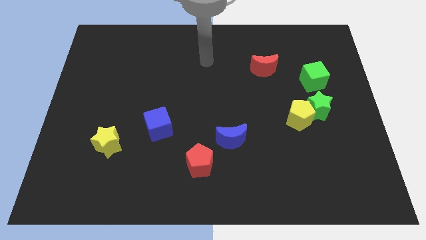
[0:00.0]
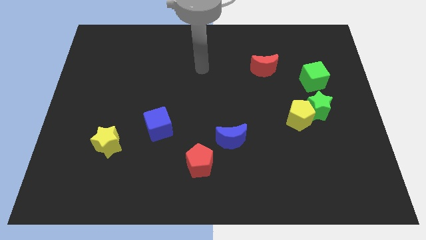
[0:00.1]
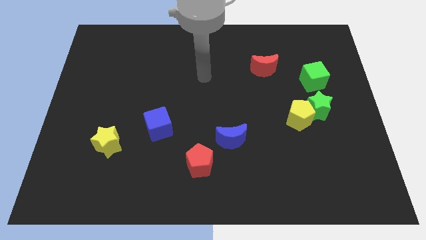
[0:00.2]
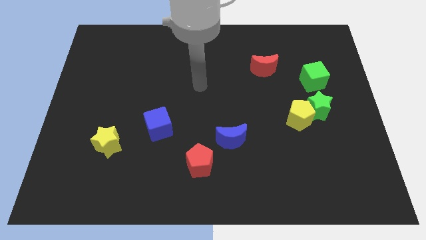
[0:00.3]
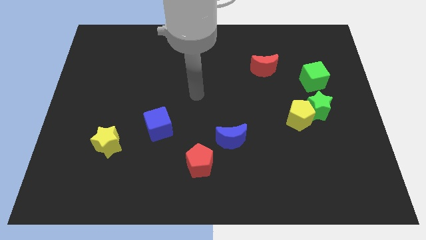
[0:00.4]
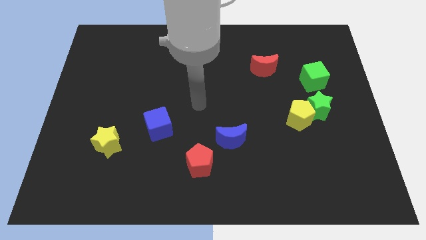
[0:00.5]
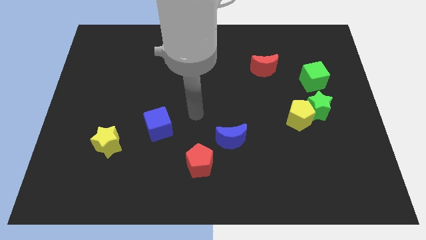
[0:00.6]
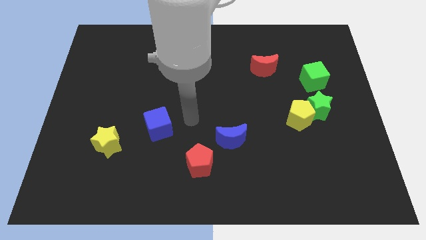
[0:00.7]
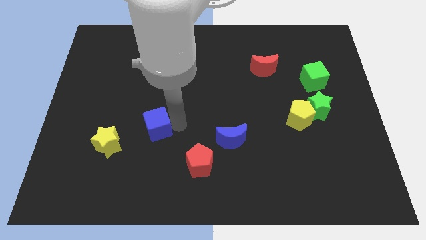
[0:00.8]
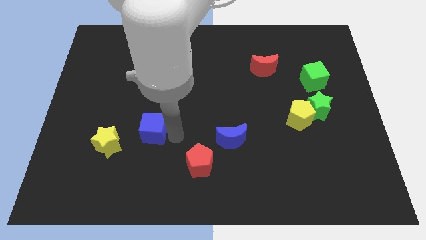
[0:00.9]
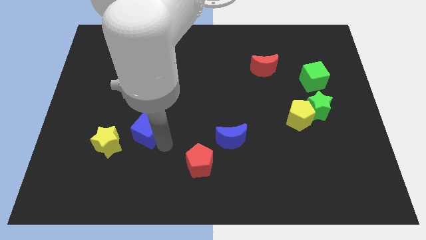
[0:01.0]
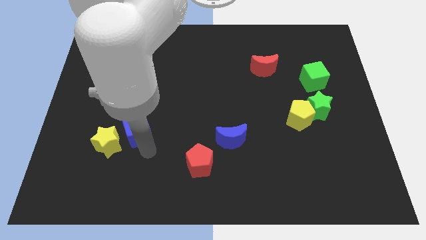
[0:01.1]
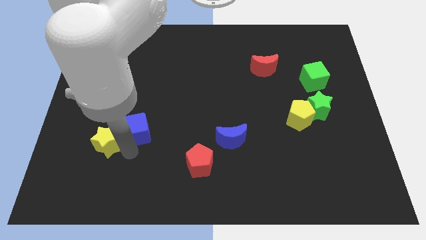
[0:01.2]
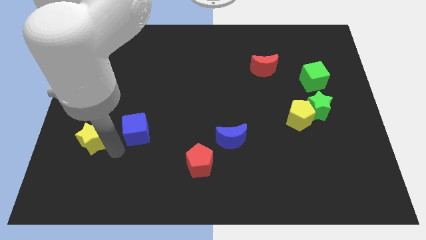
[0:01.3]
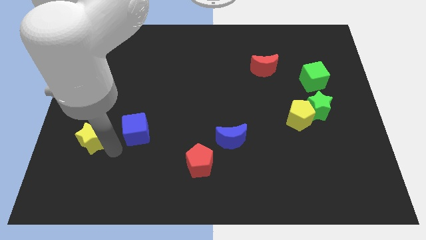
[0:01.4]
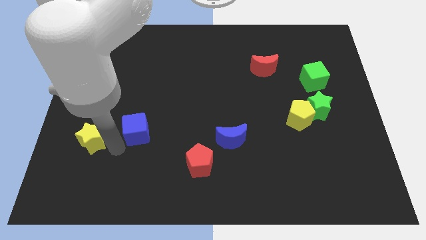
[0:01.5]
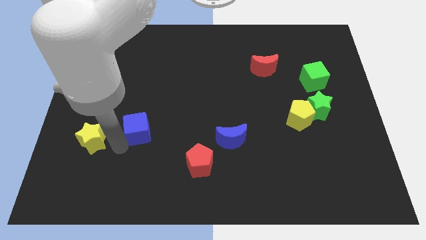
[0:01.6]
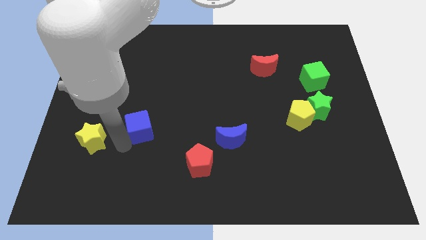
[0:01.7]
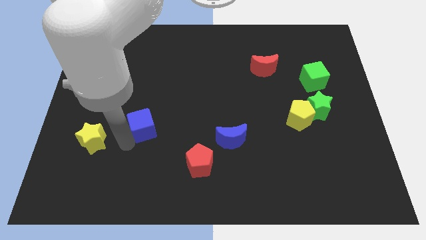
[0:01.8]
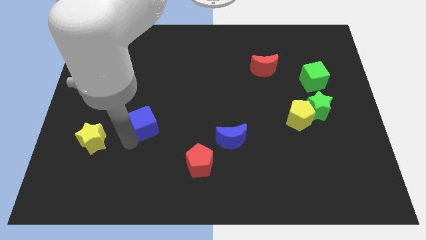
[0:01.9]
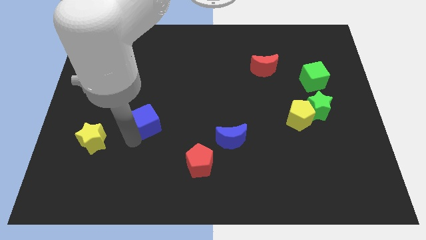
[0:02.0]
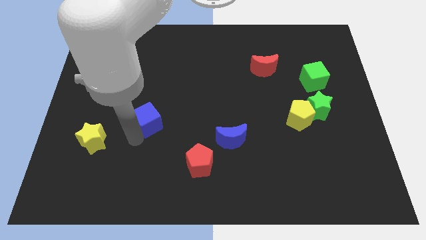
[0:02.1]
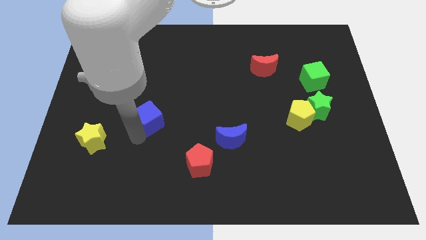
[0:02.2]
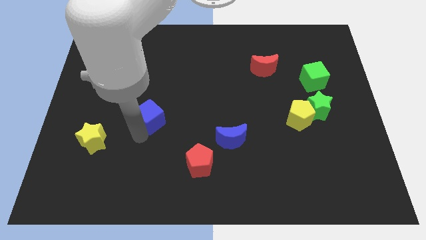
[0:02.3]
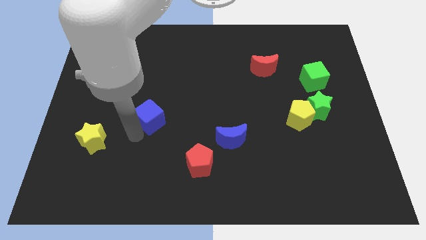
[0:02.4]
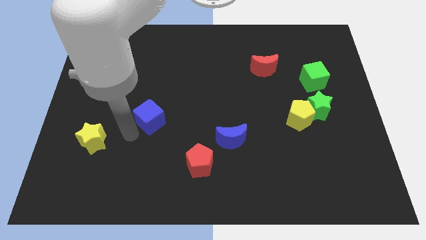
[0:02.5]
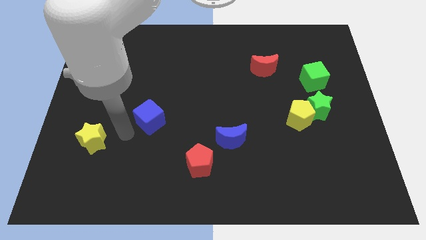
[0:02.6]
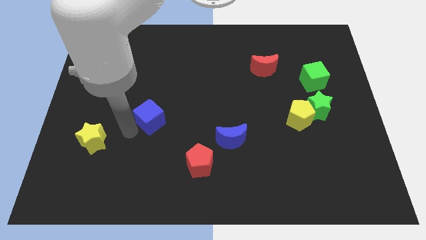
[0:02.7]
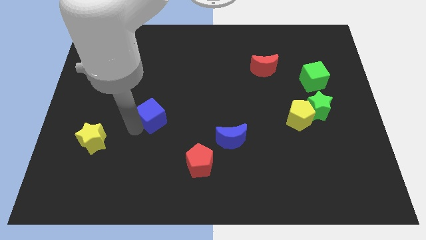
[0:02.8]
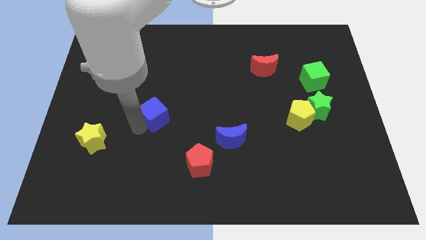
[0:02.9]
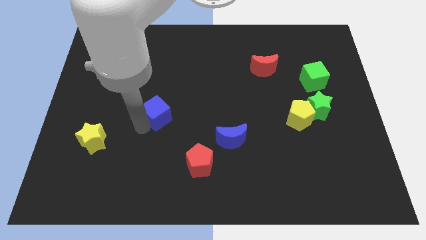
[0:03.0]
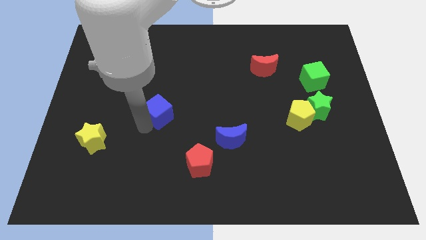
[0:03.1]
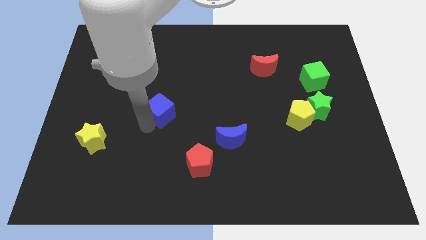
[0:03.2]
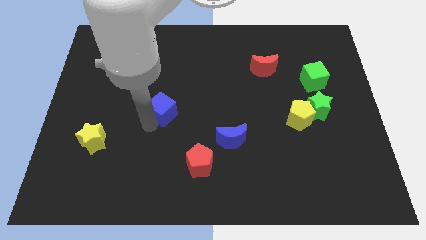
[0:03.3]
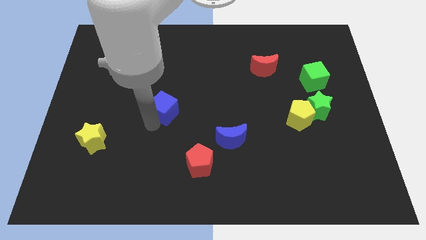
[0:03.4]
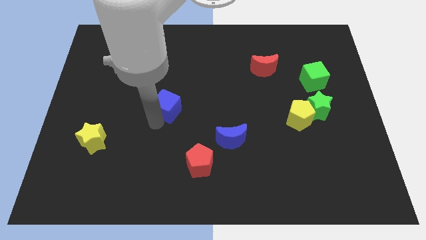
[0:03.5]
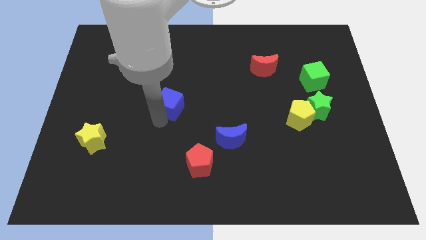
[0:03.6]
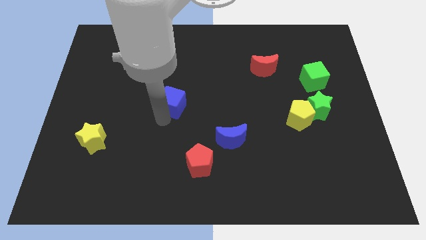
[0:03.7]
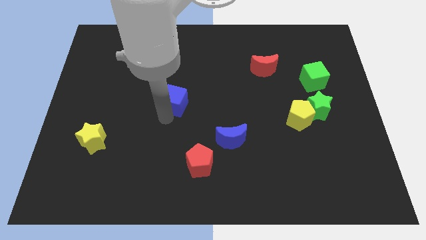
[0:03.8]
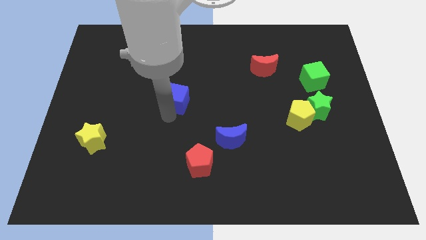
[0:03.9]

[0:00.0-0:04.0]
push the blue cube upwards a little bit

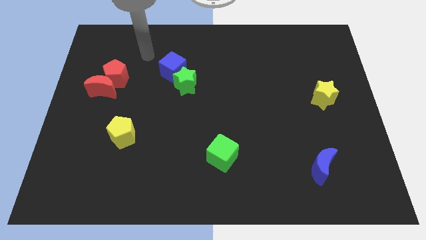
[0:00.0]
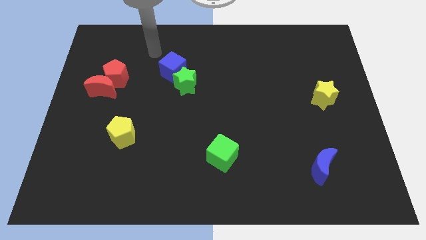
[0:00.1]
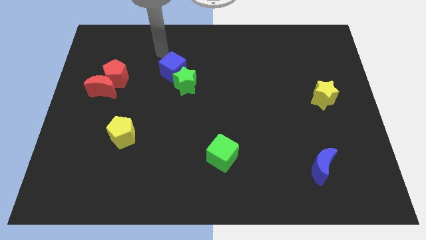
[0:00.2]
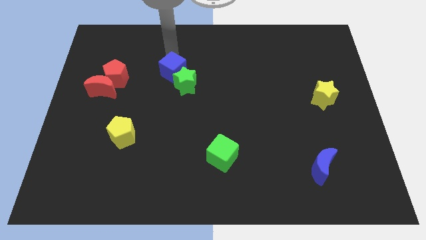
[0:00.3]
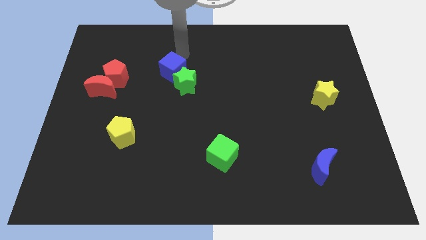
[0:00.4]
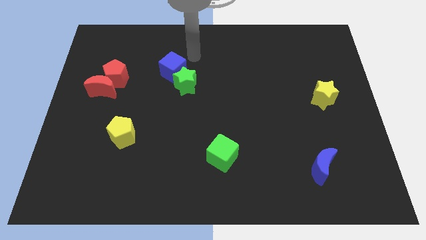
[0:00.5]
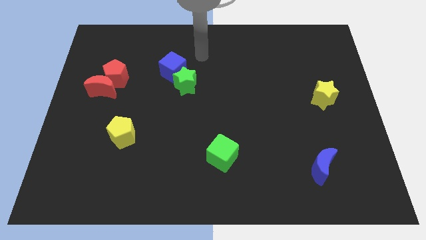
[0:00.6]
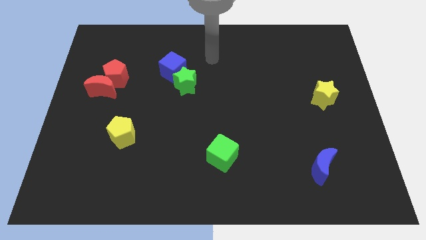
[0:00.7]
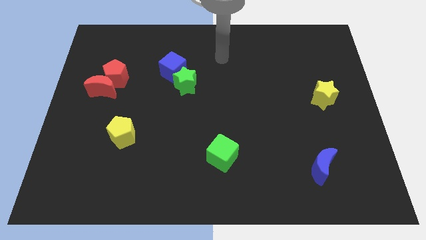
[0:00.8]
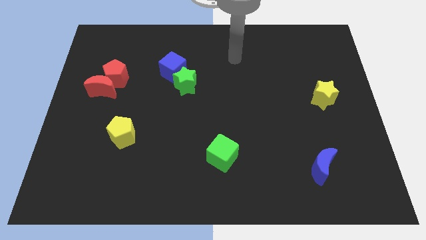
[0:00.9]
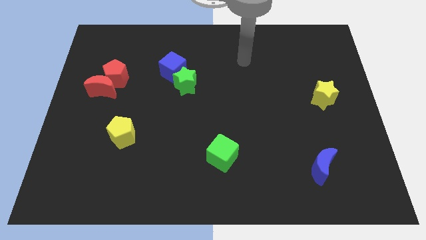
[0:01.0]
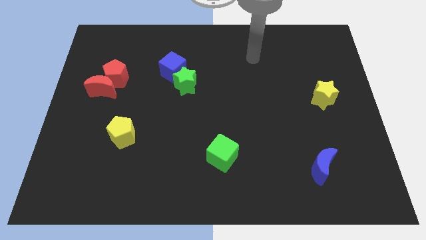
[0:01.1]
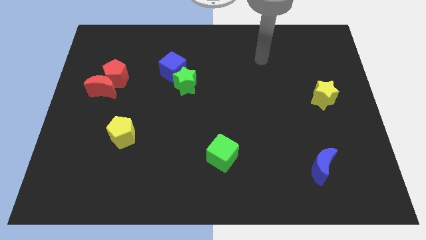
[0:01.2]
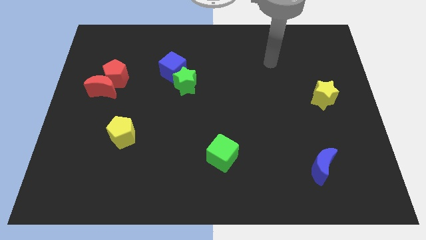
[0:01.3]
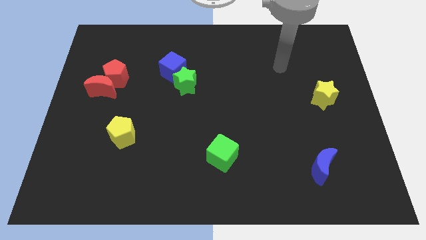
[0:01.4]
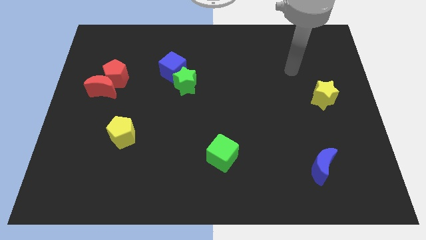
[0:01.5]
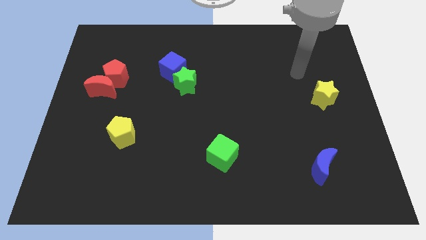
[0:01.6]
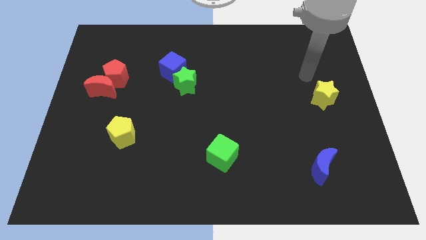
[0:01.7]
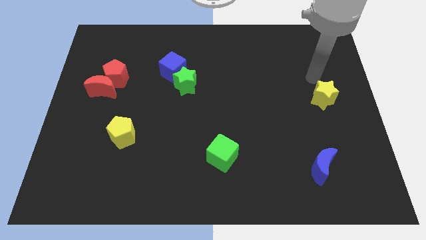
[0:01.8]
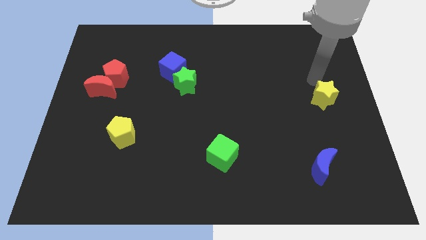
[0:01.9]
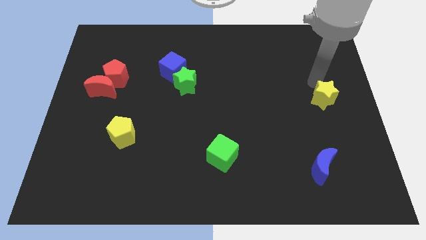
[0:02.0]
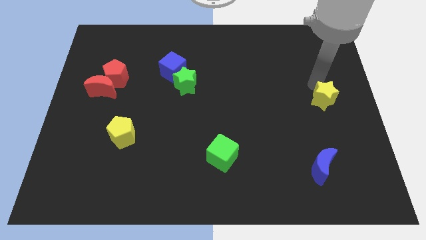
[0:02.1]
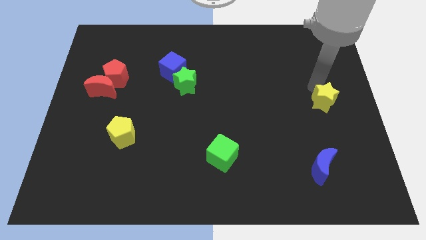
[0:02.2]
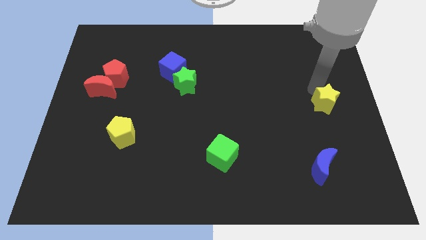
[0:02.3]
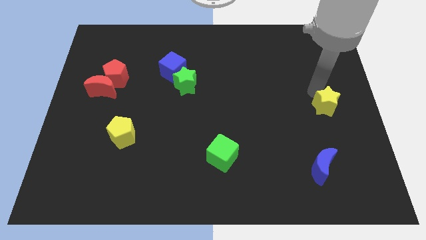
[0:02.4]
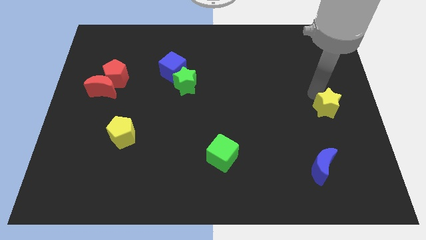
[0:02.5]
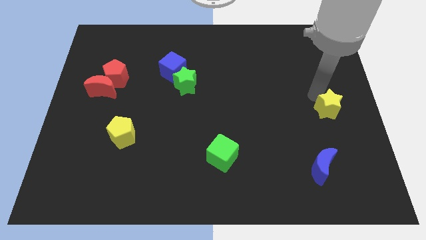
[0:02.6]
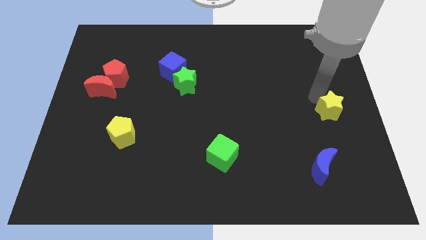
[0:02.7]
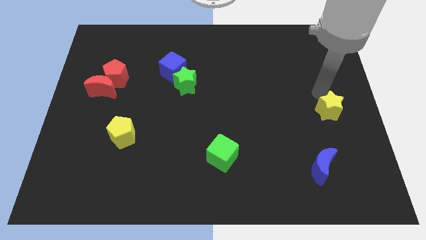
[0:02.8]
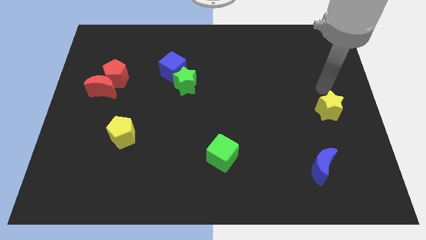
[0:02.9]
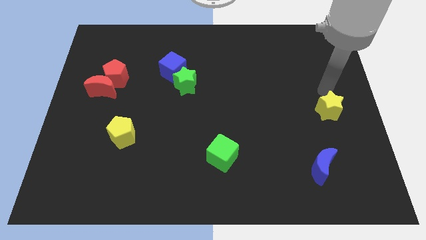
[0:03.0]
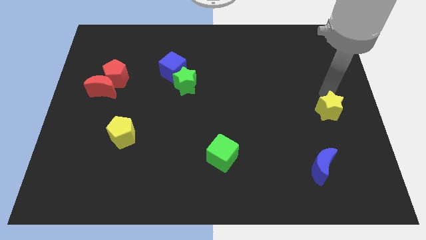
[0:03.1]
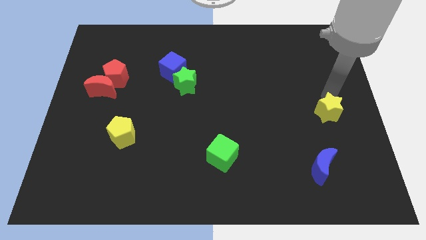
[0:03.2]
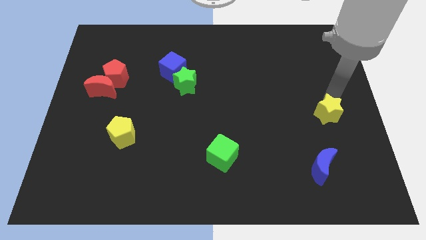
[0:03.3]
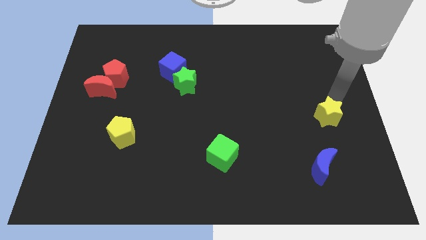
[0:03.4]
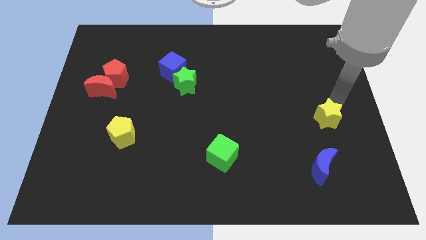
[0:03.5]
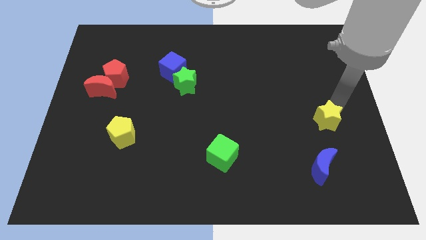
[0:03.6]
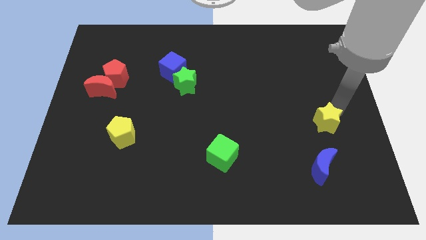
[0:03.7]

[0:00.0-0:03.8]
slide the yellow star downwards a bit
